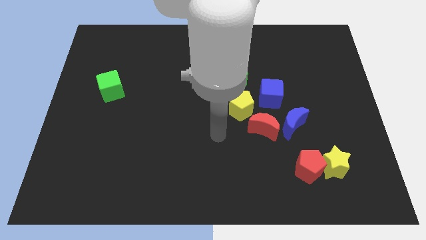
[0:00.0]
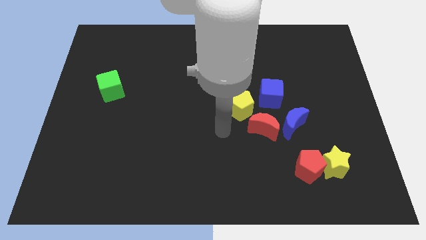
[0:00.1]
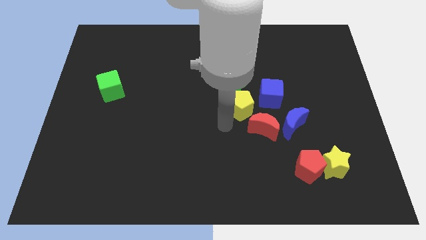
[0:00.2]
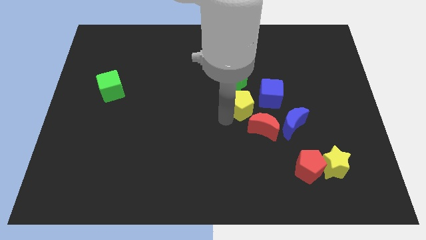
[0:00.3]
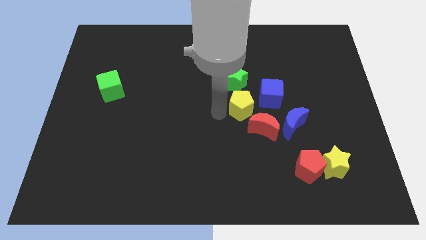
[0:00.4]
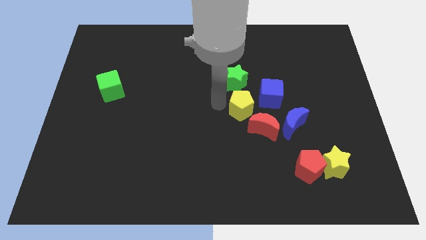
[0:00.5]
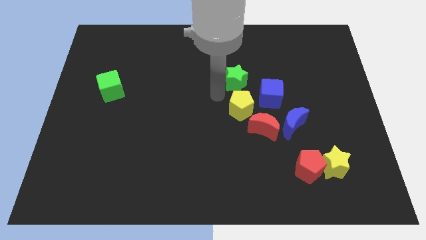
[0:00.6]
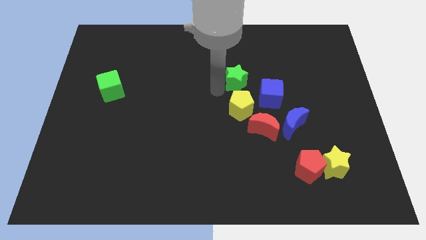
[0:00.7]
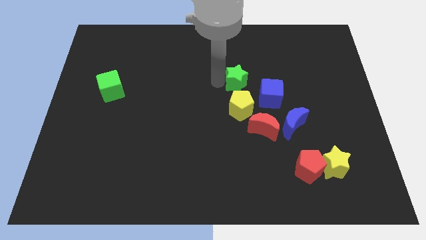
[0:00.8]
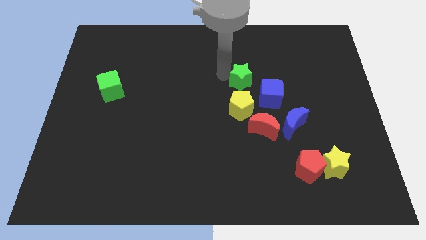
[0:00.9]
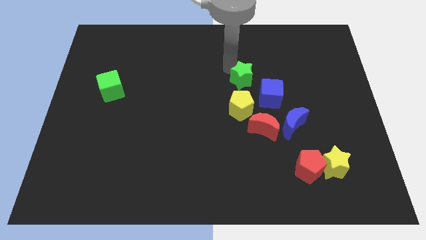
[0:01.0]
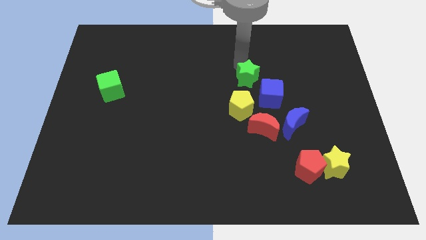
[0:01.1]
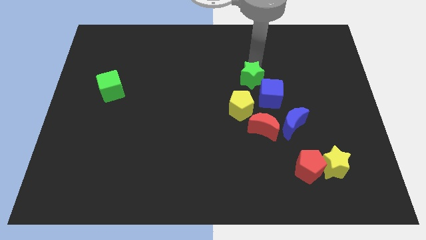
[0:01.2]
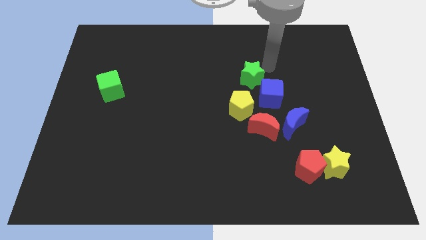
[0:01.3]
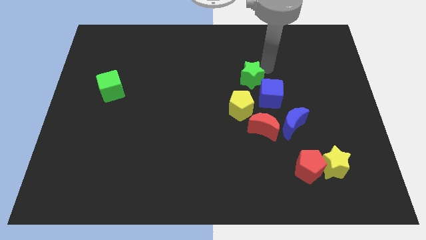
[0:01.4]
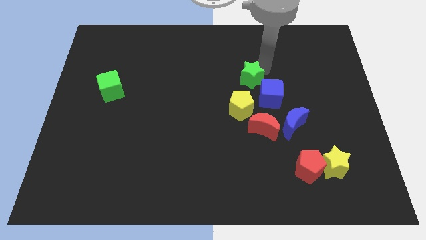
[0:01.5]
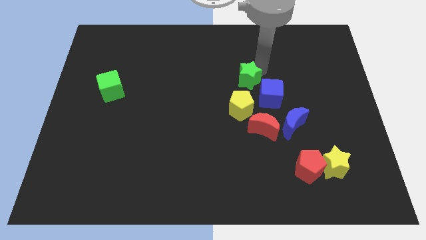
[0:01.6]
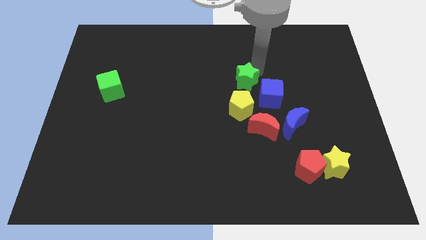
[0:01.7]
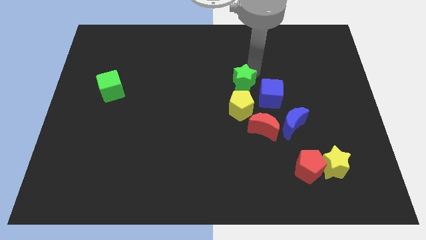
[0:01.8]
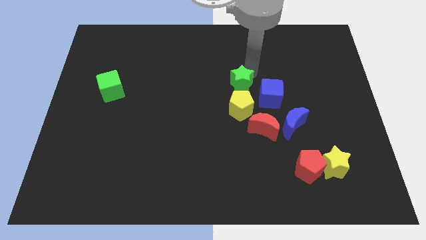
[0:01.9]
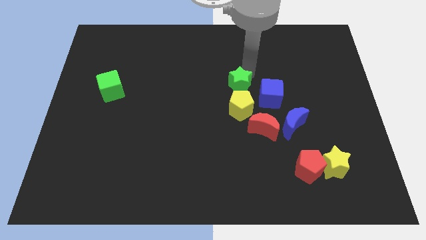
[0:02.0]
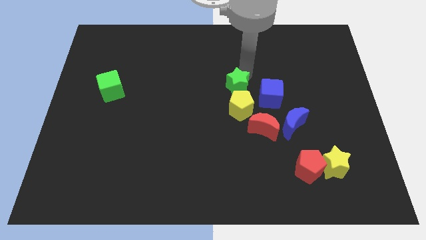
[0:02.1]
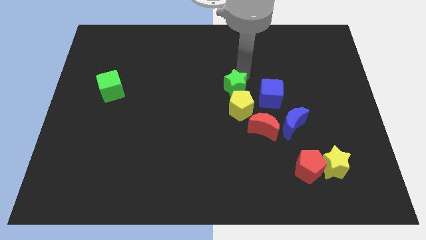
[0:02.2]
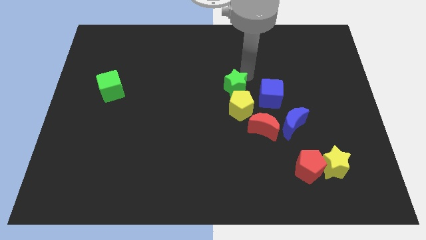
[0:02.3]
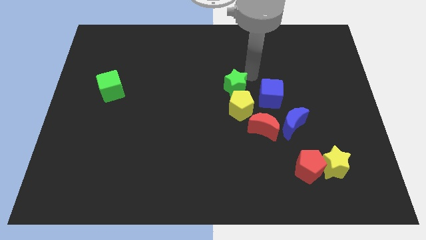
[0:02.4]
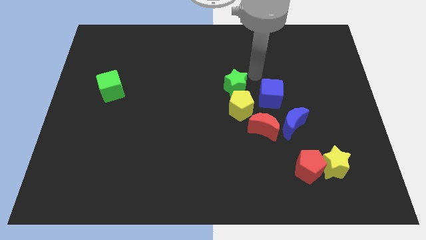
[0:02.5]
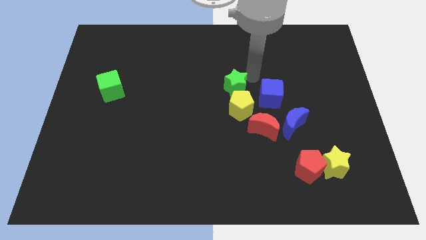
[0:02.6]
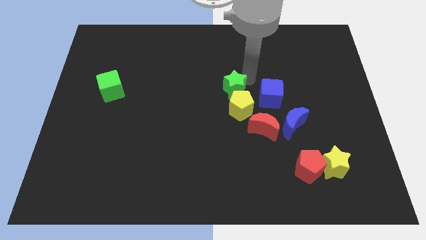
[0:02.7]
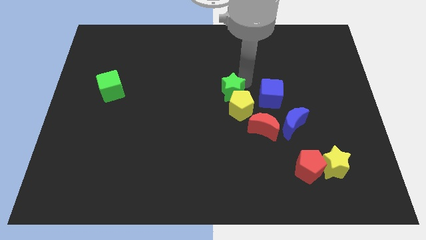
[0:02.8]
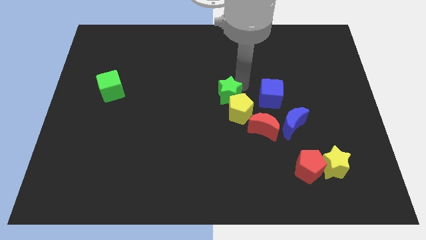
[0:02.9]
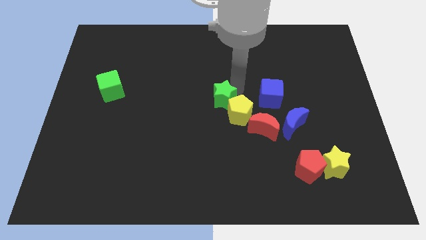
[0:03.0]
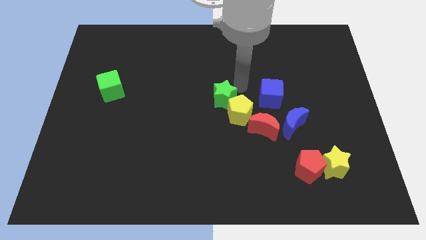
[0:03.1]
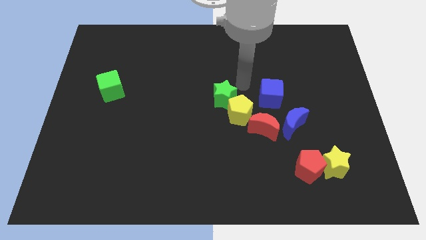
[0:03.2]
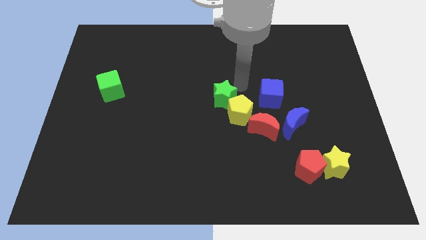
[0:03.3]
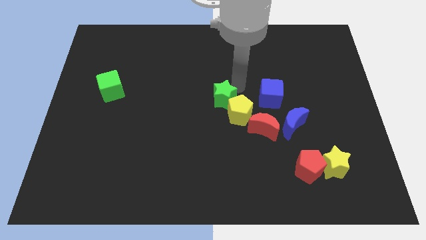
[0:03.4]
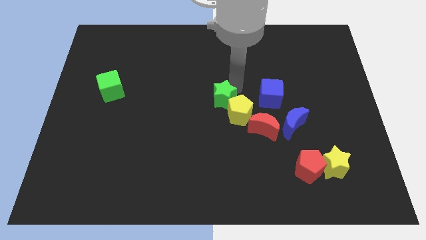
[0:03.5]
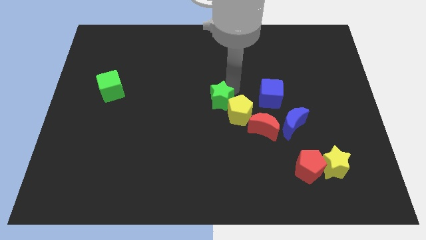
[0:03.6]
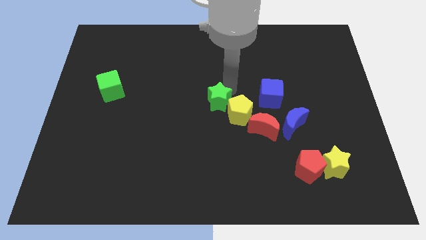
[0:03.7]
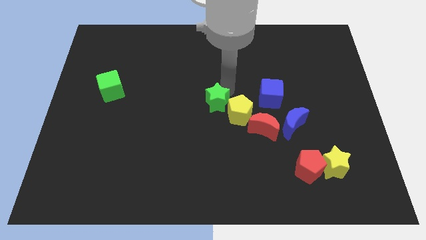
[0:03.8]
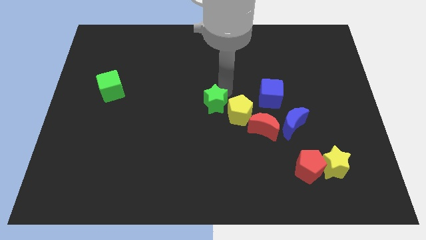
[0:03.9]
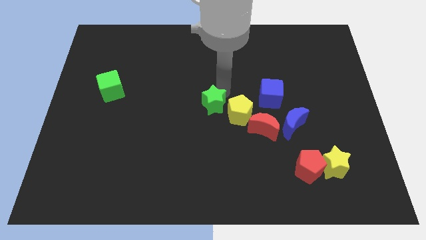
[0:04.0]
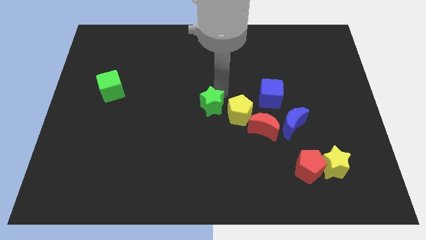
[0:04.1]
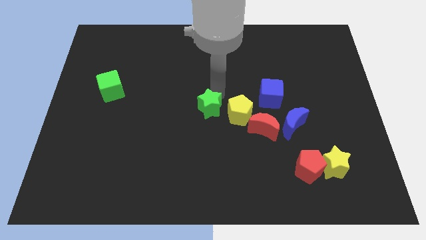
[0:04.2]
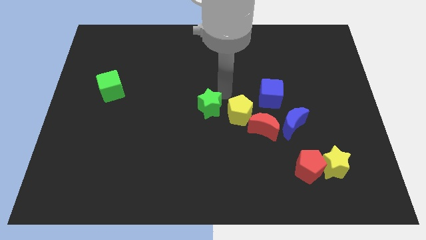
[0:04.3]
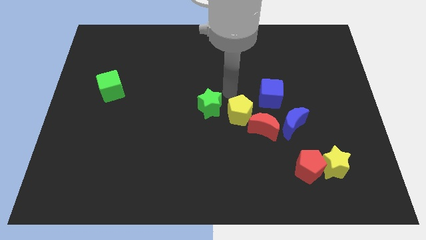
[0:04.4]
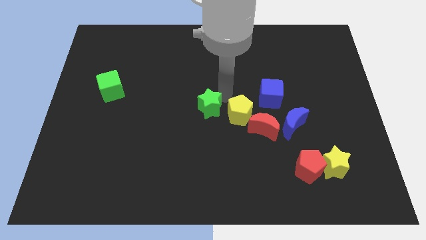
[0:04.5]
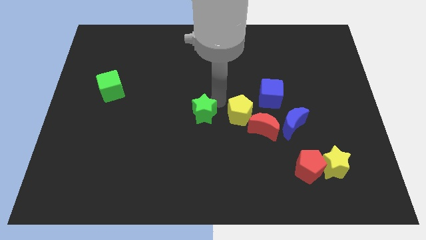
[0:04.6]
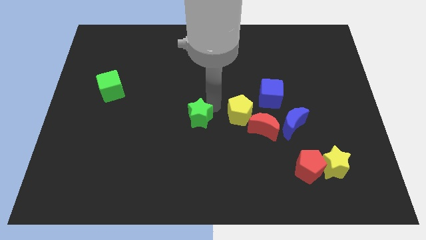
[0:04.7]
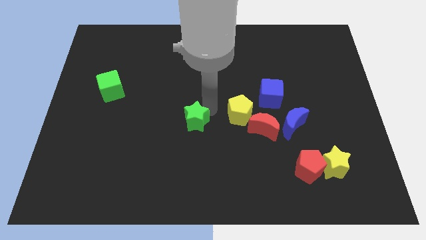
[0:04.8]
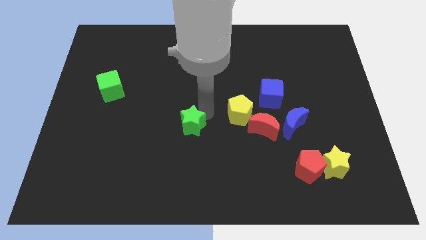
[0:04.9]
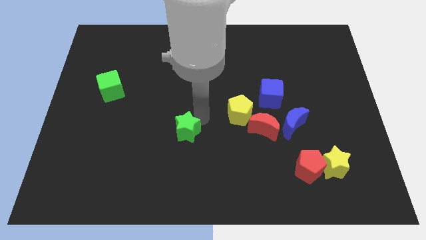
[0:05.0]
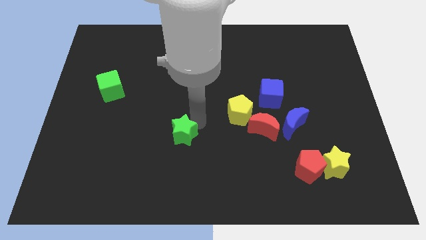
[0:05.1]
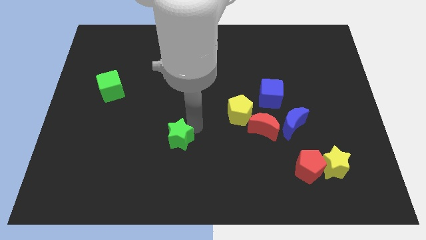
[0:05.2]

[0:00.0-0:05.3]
move the green star diagonally downwards and to the left

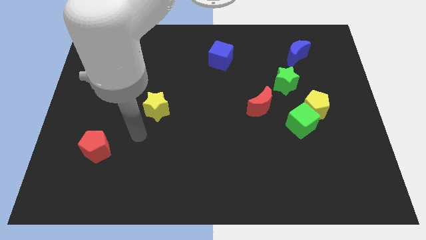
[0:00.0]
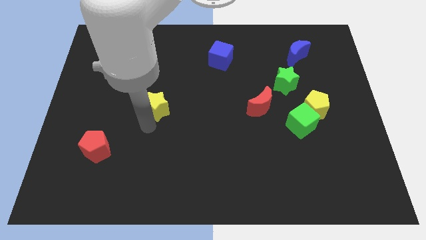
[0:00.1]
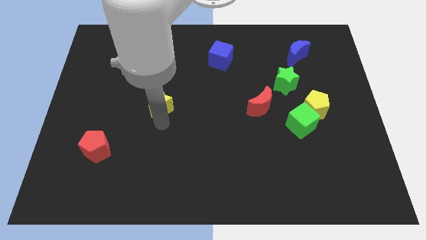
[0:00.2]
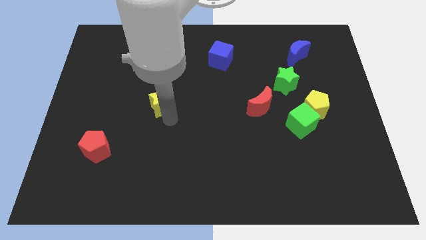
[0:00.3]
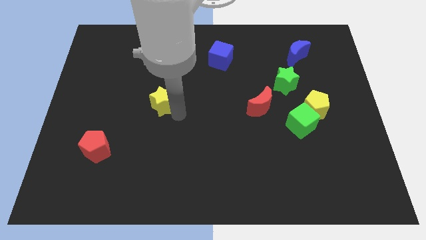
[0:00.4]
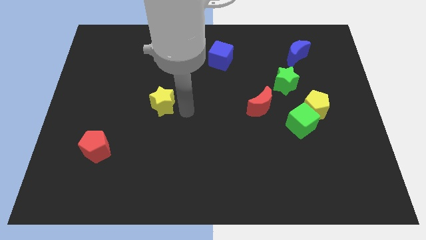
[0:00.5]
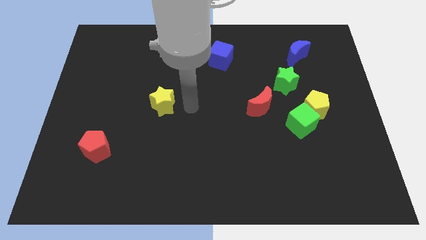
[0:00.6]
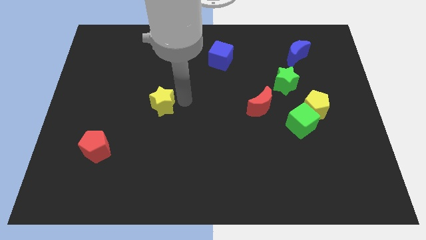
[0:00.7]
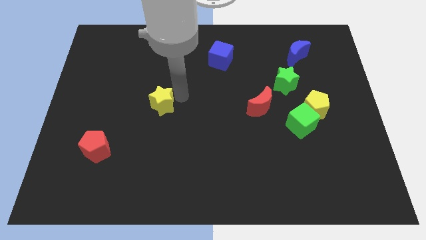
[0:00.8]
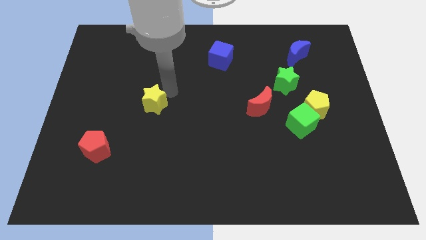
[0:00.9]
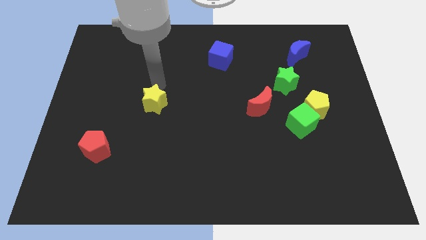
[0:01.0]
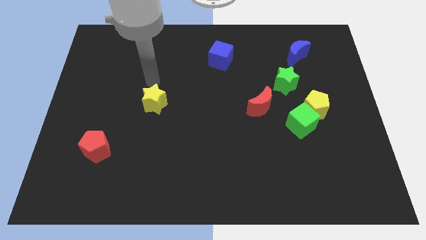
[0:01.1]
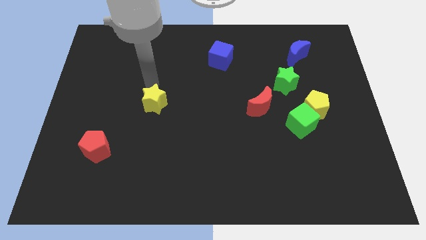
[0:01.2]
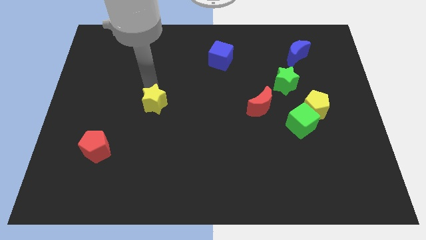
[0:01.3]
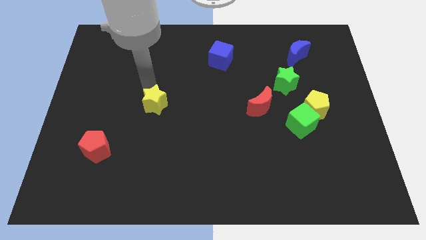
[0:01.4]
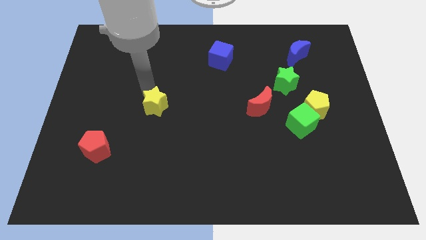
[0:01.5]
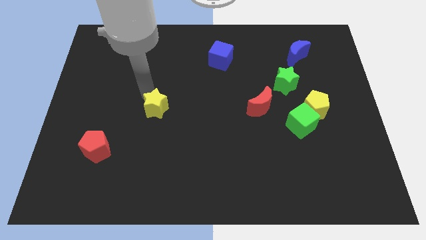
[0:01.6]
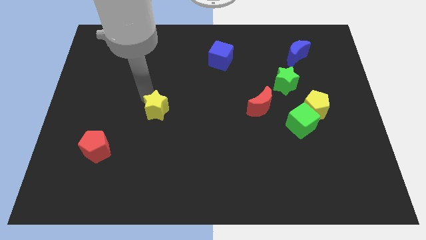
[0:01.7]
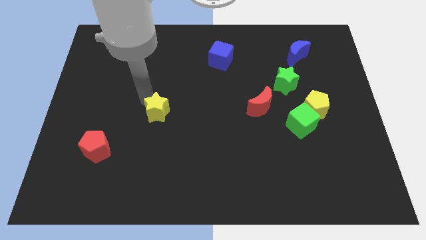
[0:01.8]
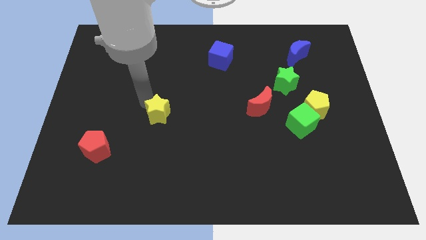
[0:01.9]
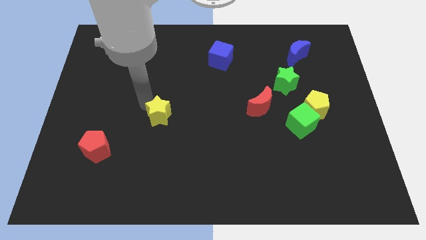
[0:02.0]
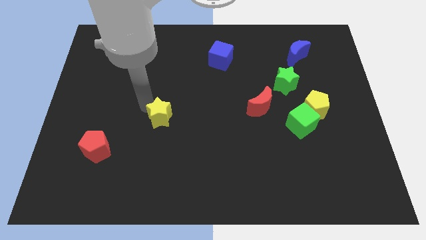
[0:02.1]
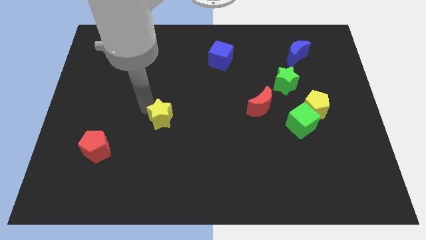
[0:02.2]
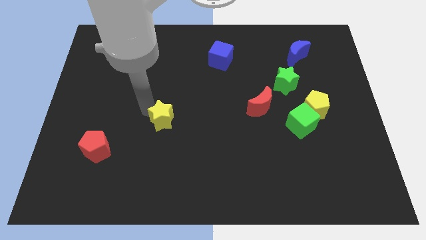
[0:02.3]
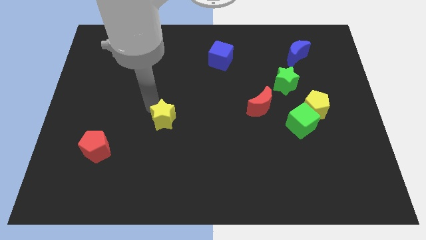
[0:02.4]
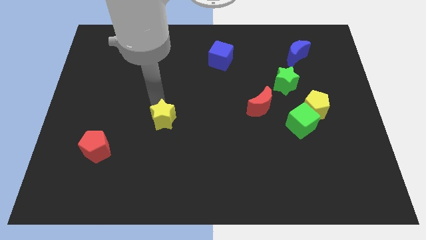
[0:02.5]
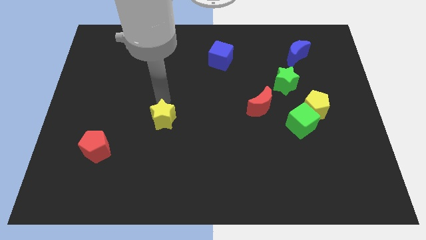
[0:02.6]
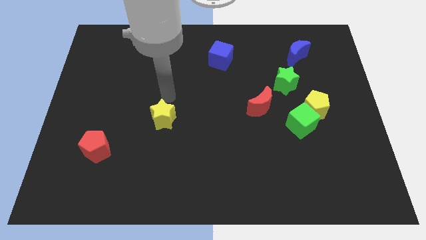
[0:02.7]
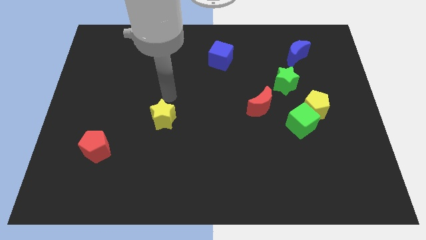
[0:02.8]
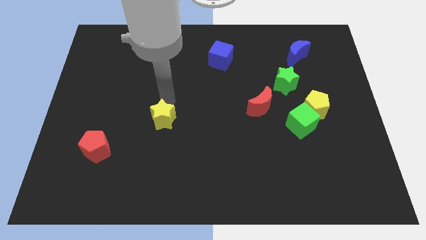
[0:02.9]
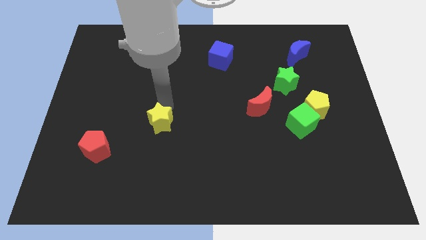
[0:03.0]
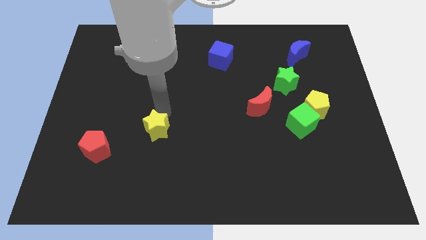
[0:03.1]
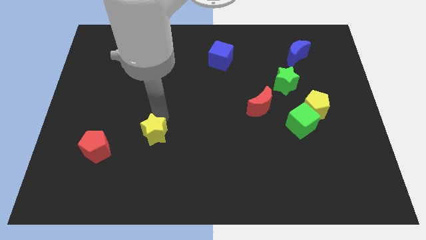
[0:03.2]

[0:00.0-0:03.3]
slightly push the yellow star down
